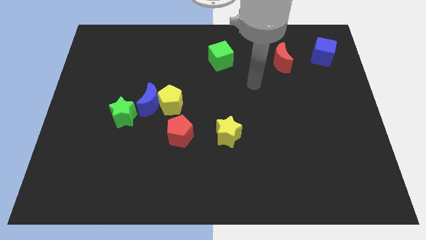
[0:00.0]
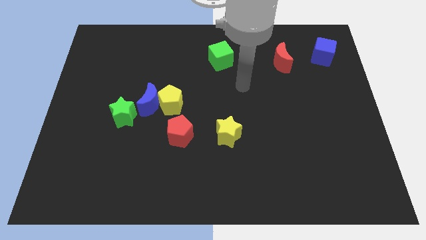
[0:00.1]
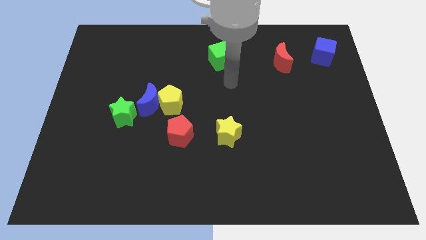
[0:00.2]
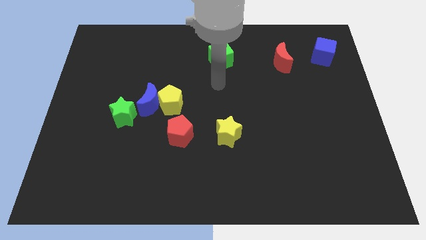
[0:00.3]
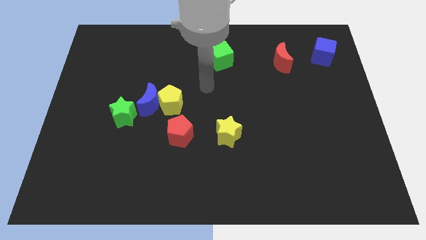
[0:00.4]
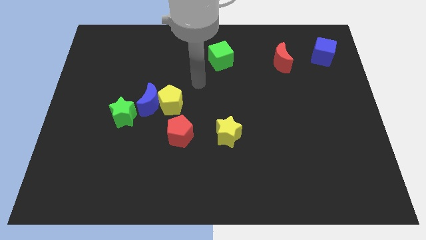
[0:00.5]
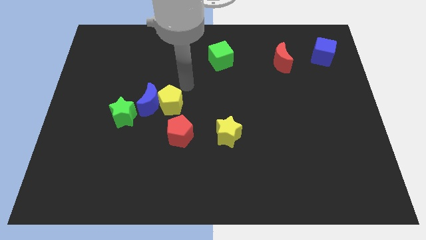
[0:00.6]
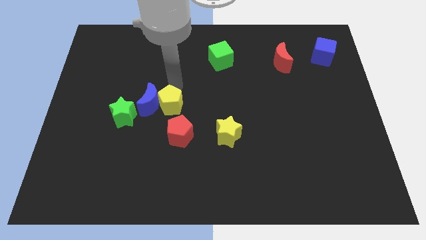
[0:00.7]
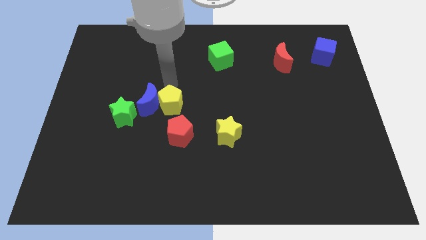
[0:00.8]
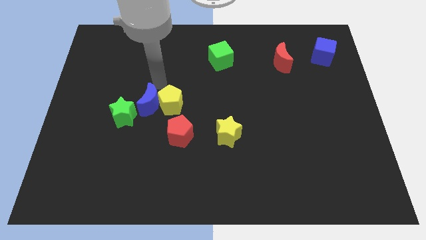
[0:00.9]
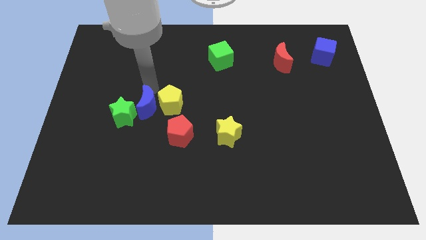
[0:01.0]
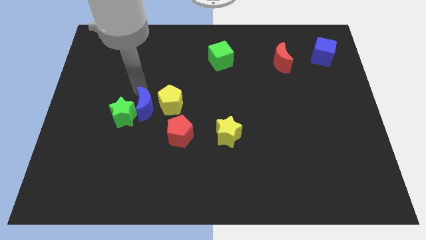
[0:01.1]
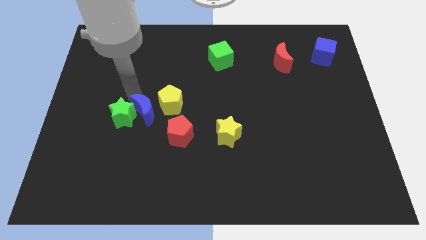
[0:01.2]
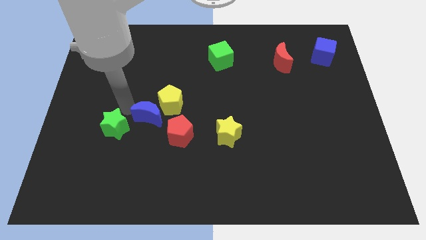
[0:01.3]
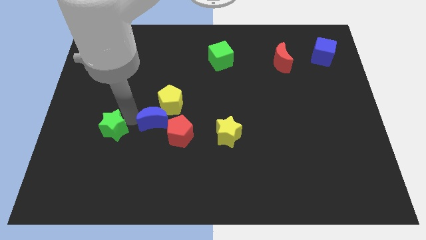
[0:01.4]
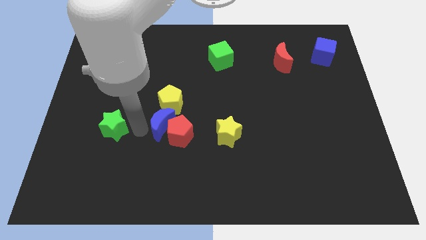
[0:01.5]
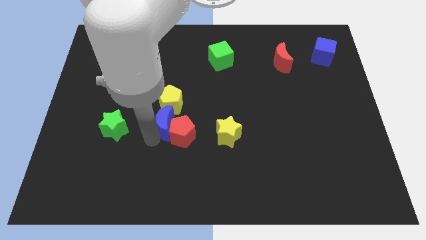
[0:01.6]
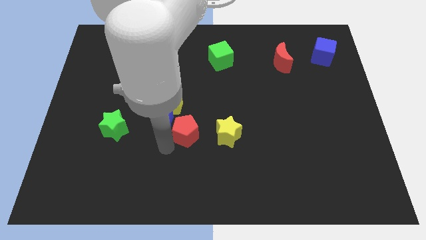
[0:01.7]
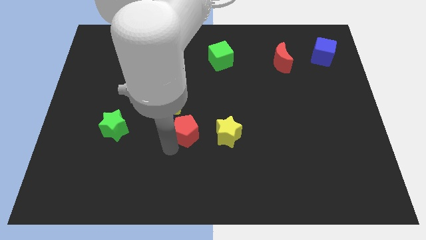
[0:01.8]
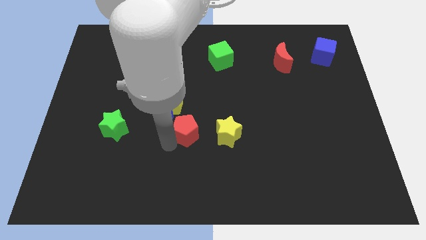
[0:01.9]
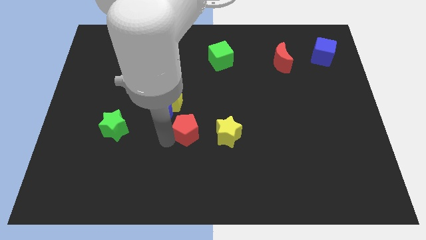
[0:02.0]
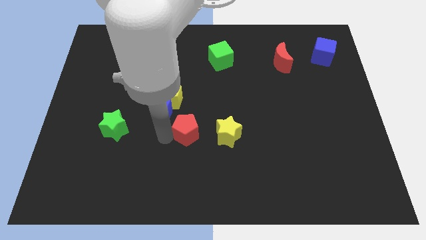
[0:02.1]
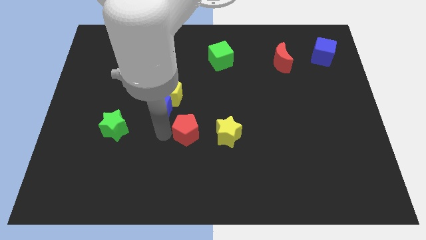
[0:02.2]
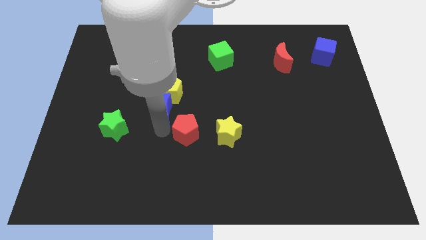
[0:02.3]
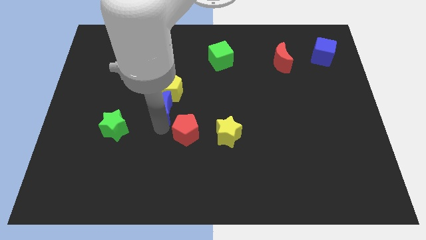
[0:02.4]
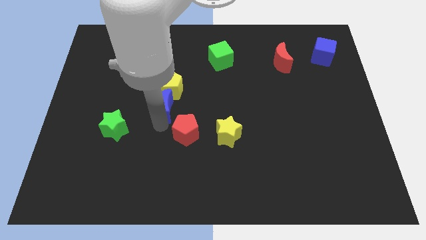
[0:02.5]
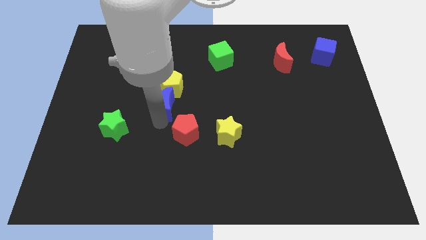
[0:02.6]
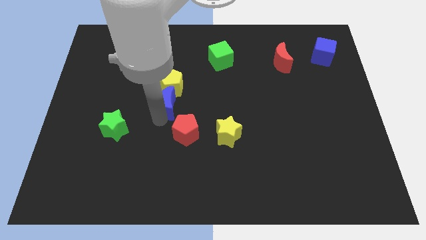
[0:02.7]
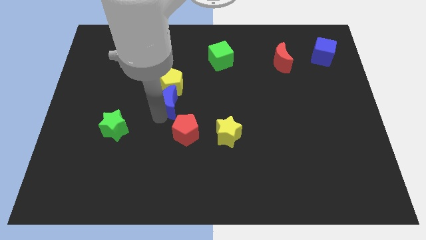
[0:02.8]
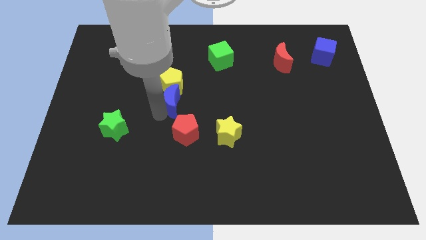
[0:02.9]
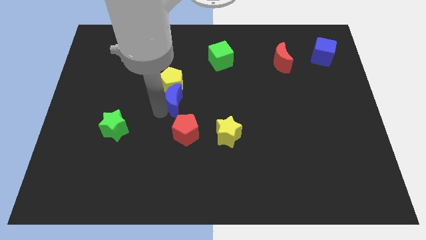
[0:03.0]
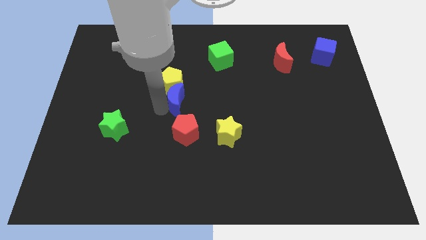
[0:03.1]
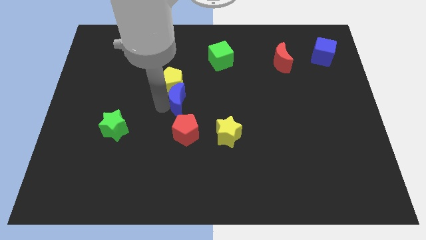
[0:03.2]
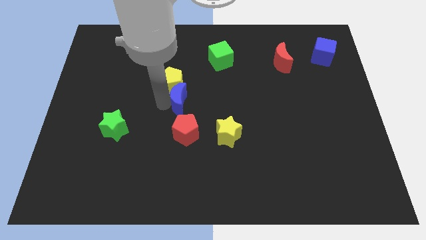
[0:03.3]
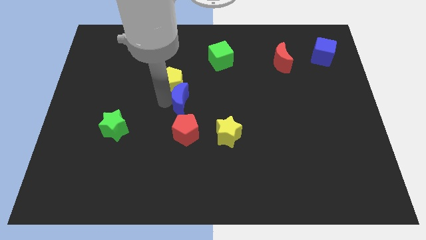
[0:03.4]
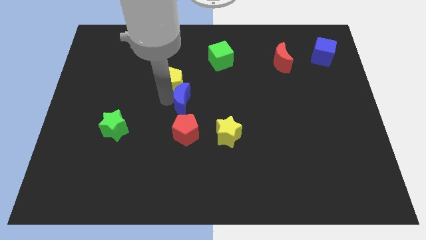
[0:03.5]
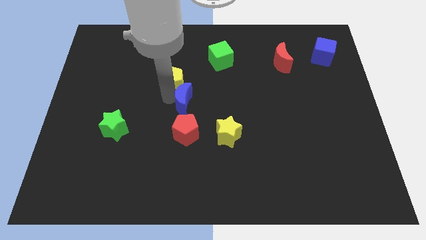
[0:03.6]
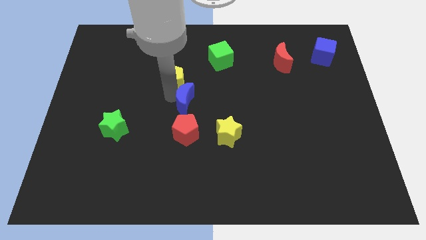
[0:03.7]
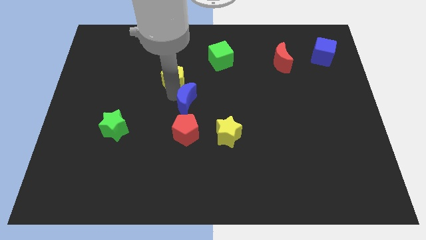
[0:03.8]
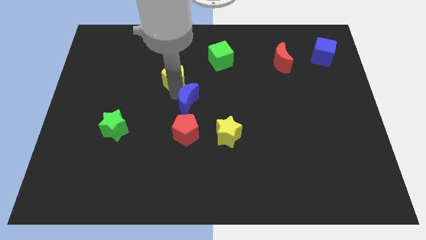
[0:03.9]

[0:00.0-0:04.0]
move the blue moon away from the yellow pentagon and green star

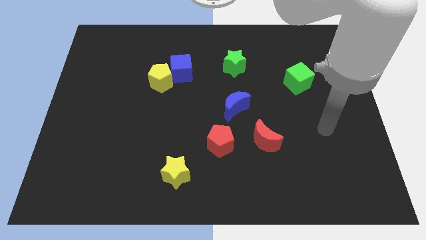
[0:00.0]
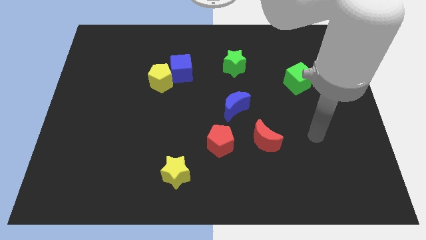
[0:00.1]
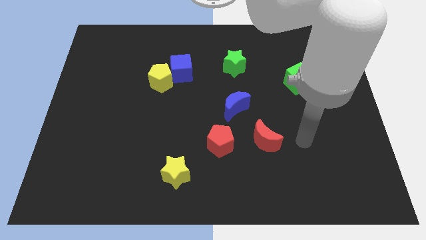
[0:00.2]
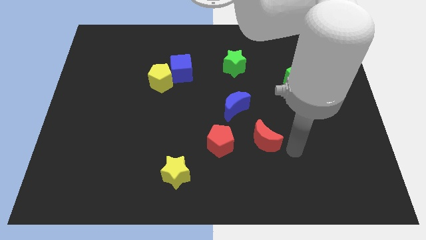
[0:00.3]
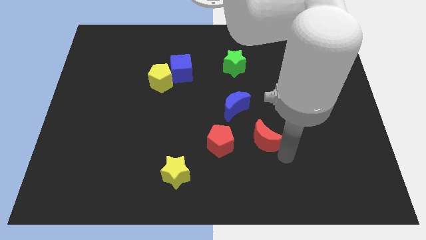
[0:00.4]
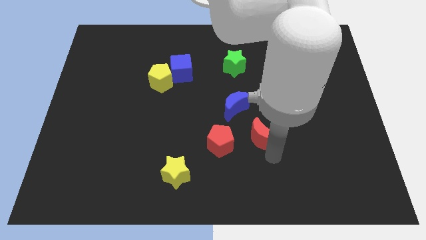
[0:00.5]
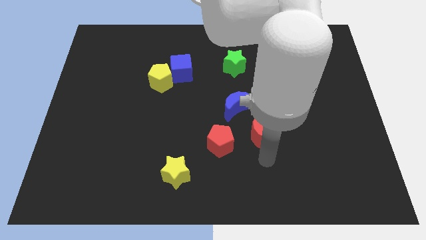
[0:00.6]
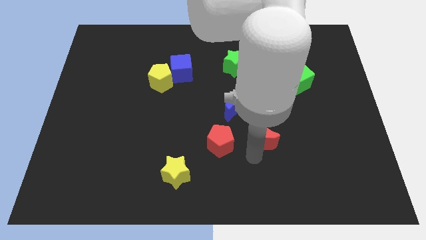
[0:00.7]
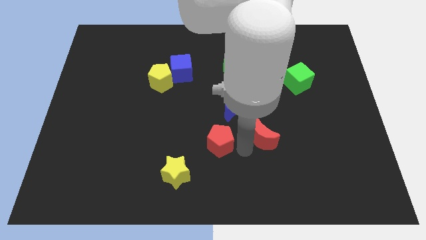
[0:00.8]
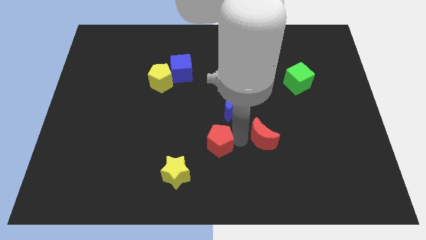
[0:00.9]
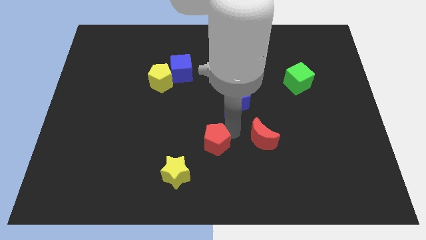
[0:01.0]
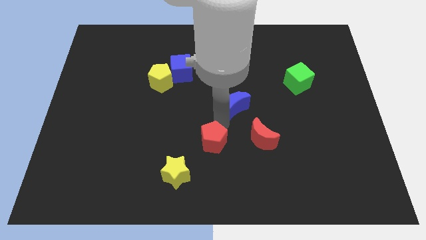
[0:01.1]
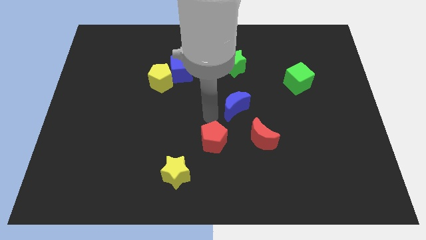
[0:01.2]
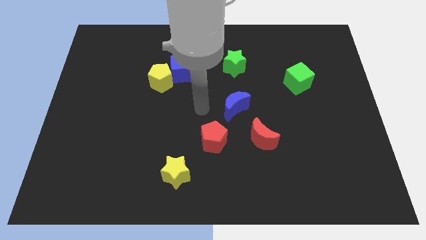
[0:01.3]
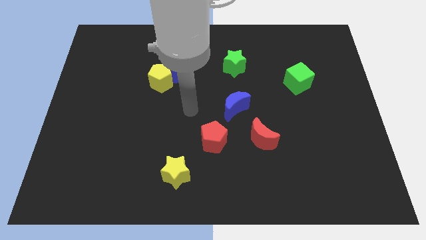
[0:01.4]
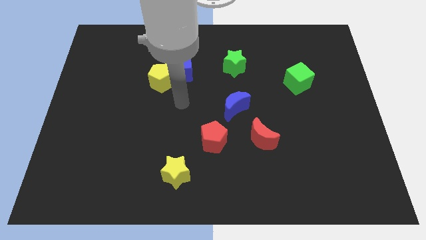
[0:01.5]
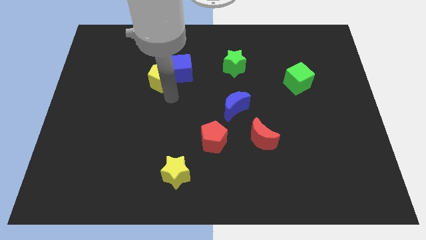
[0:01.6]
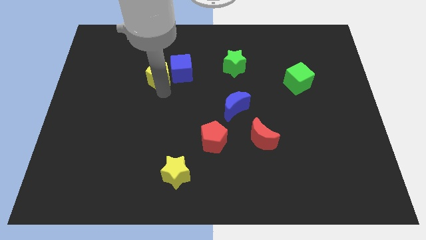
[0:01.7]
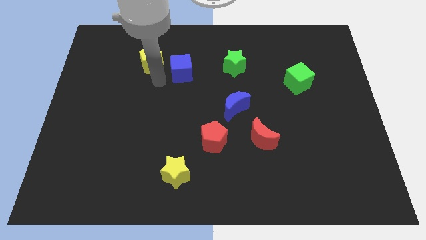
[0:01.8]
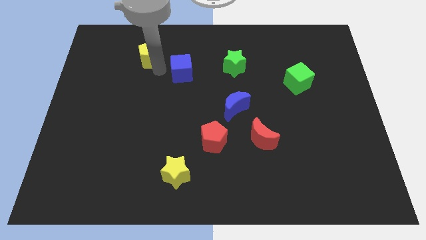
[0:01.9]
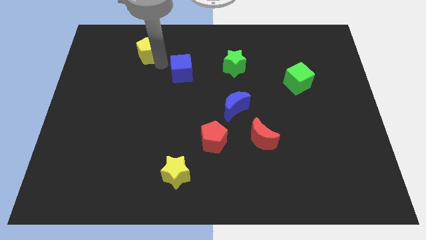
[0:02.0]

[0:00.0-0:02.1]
move the blue cube away from the yellow pentagon

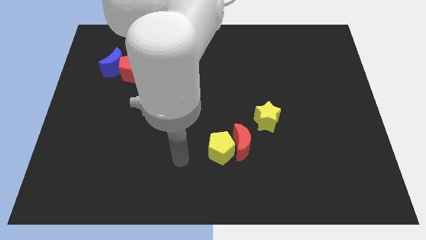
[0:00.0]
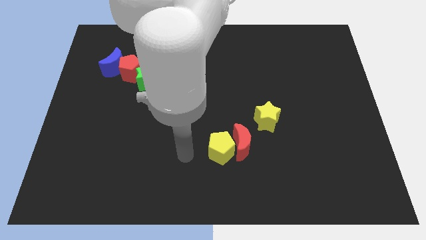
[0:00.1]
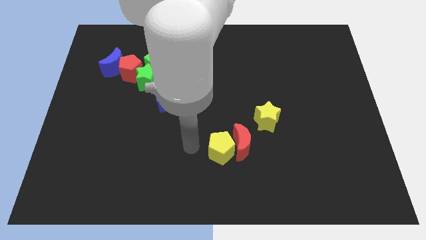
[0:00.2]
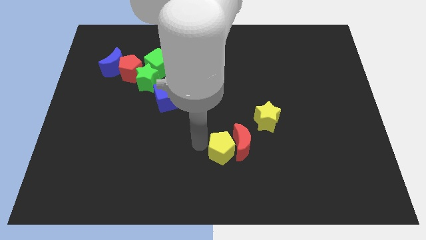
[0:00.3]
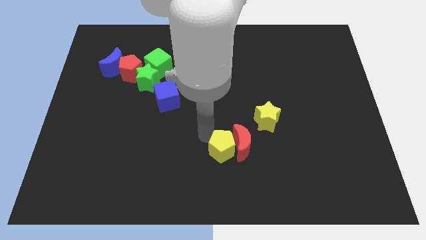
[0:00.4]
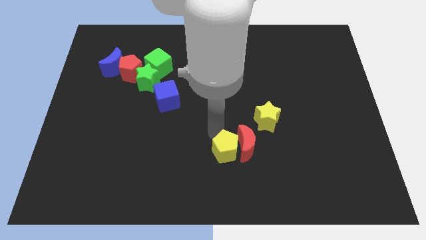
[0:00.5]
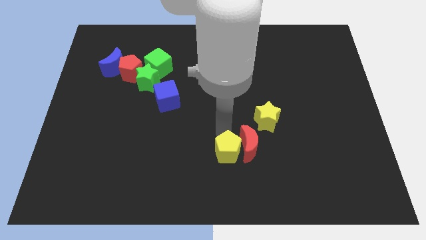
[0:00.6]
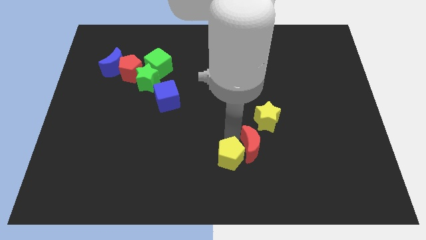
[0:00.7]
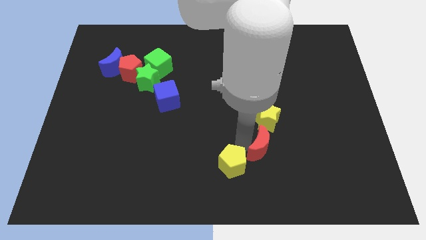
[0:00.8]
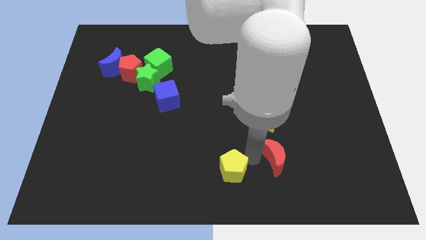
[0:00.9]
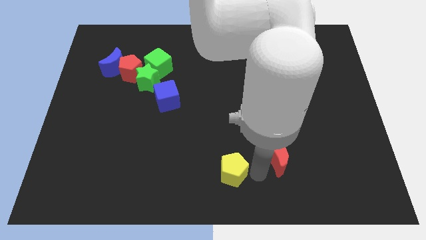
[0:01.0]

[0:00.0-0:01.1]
pull the yellow pentagon apart from the red moon

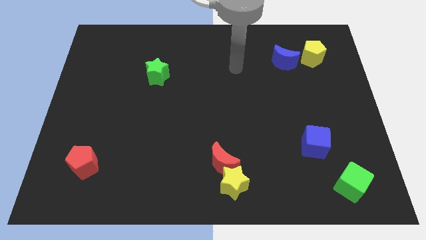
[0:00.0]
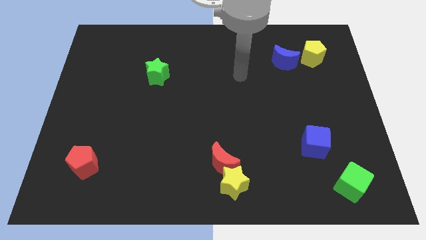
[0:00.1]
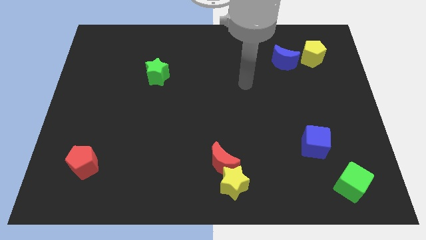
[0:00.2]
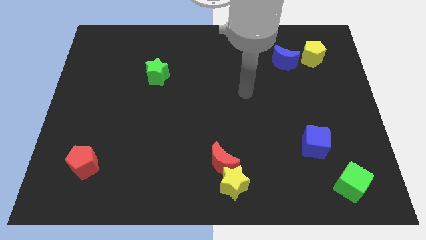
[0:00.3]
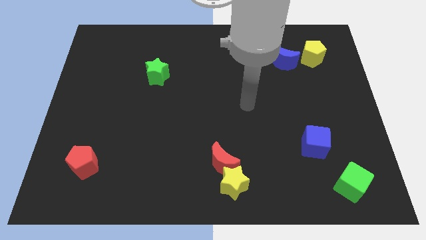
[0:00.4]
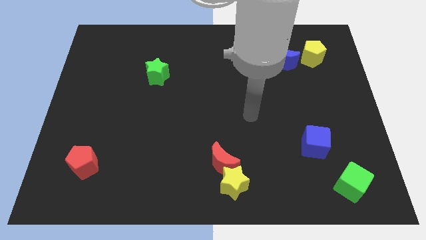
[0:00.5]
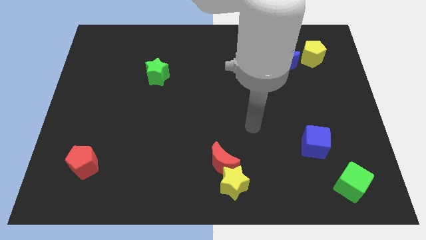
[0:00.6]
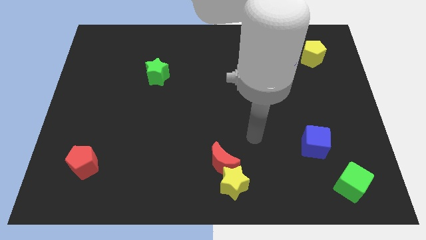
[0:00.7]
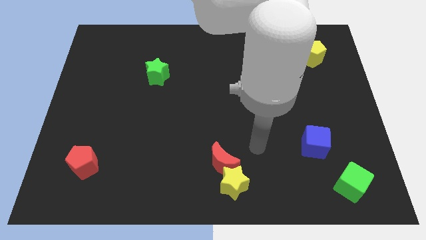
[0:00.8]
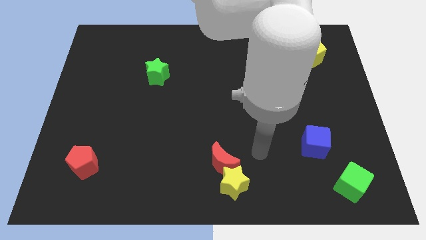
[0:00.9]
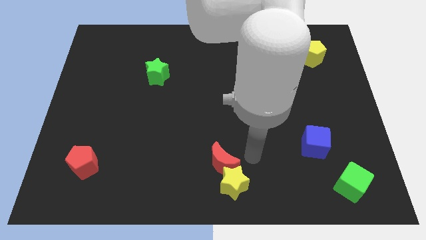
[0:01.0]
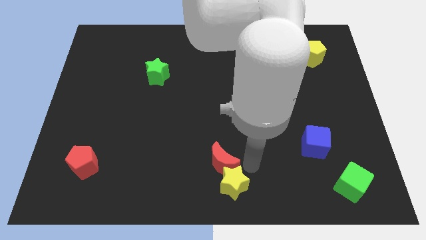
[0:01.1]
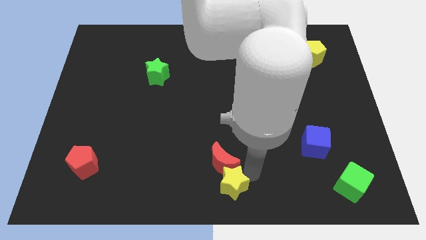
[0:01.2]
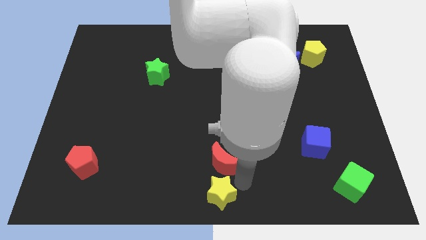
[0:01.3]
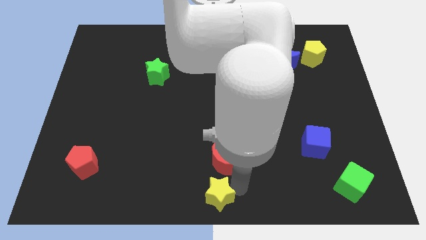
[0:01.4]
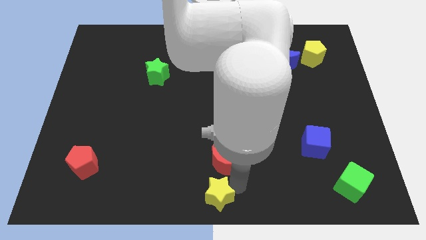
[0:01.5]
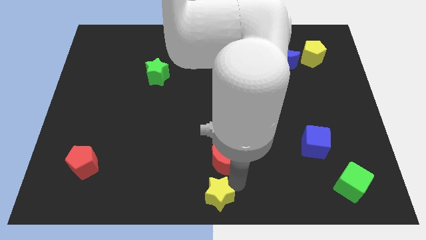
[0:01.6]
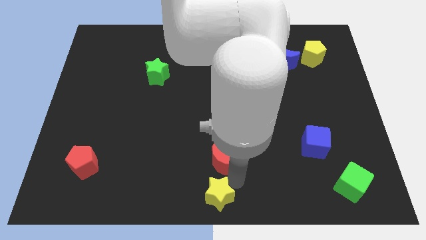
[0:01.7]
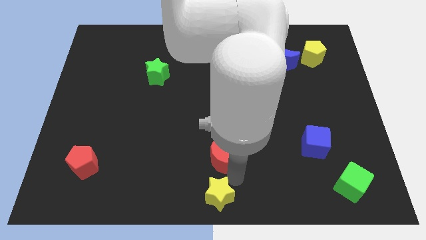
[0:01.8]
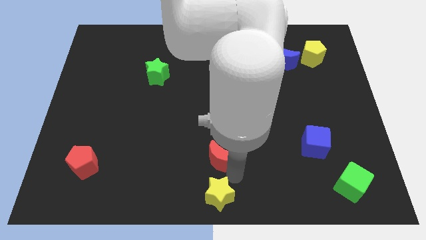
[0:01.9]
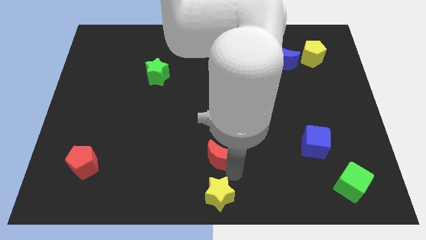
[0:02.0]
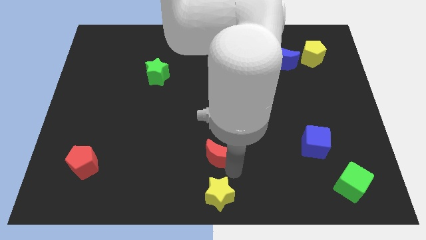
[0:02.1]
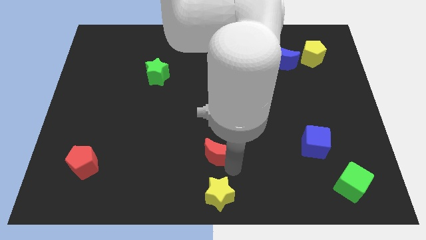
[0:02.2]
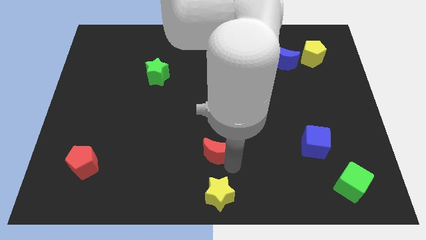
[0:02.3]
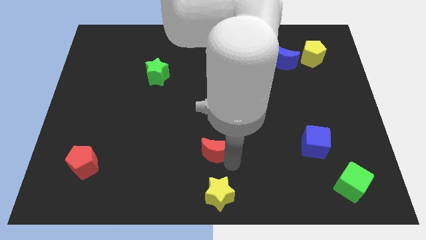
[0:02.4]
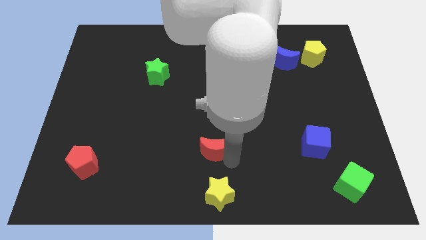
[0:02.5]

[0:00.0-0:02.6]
pull the red moon apart from the yellow star
